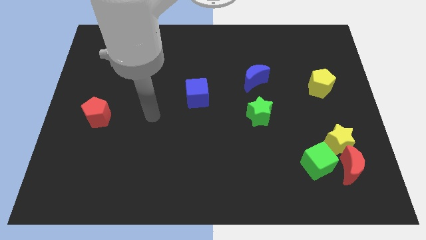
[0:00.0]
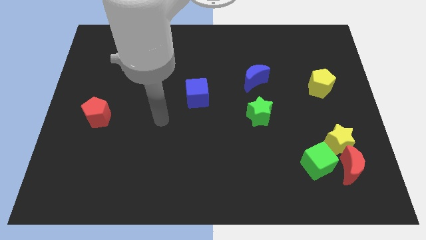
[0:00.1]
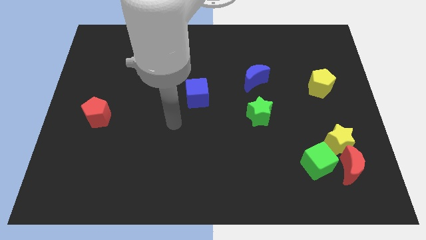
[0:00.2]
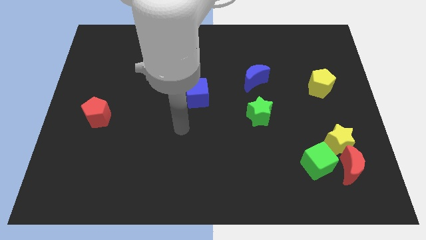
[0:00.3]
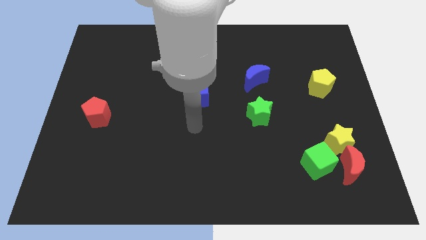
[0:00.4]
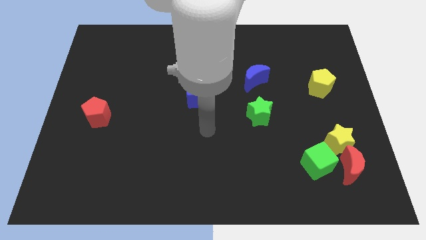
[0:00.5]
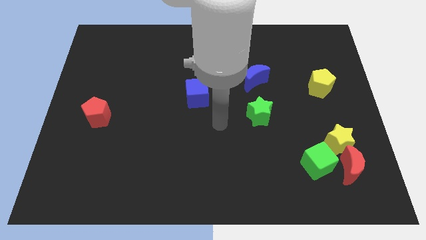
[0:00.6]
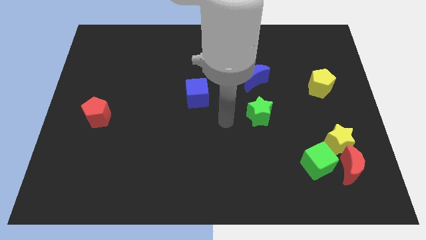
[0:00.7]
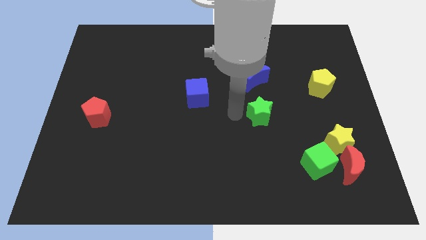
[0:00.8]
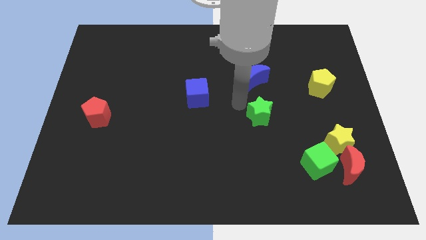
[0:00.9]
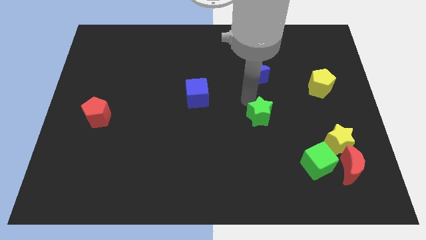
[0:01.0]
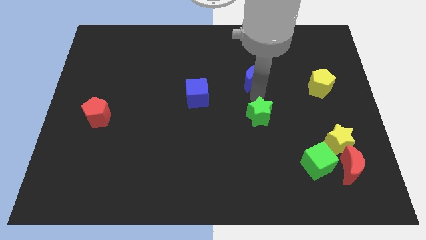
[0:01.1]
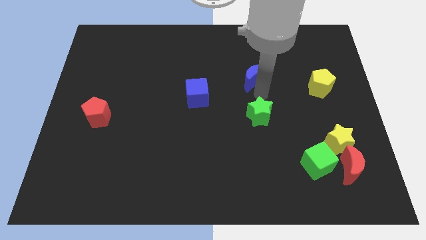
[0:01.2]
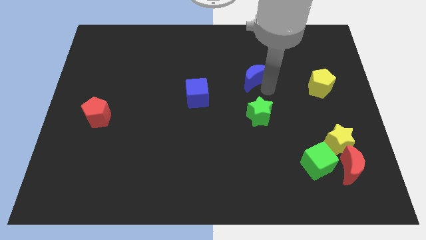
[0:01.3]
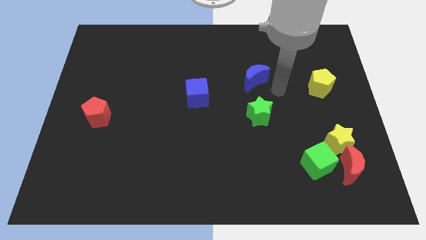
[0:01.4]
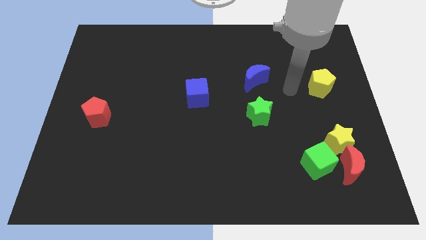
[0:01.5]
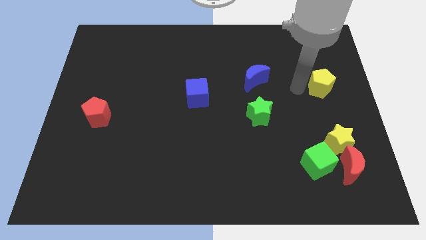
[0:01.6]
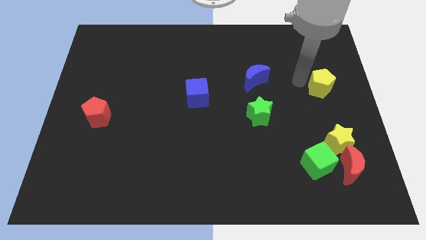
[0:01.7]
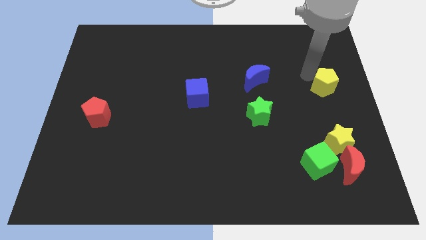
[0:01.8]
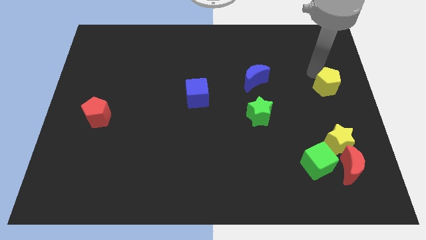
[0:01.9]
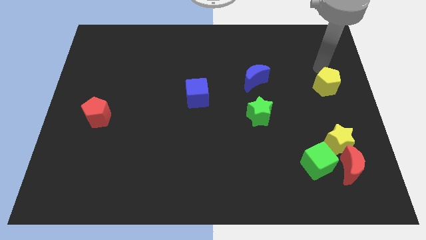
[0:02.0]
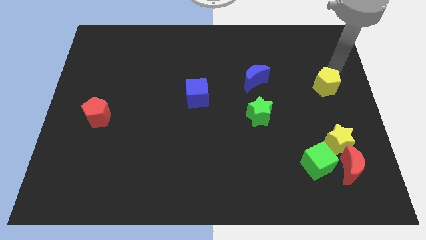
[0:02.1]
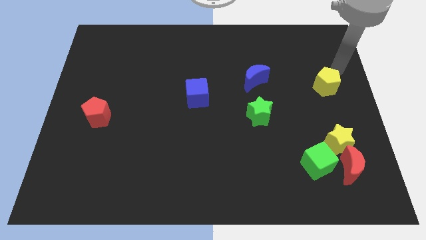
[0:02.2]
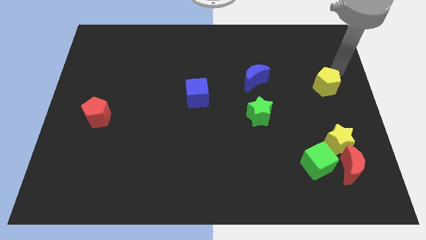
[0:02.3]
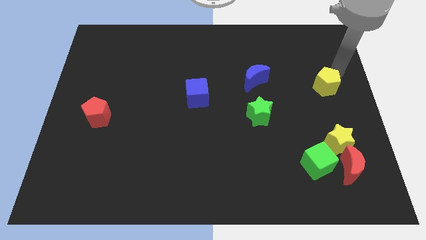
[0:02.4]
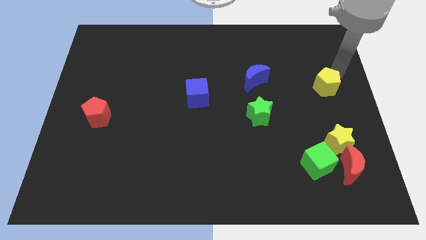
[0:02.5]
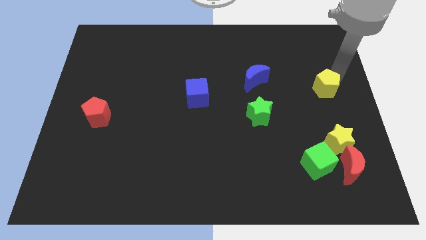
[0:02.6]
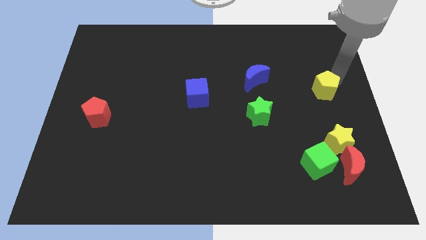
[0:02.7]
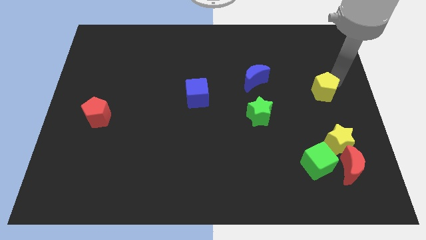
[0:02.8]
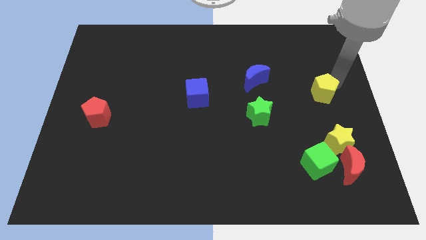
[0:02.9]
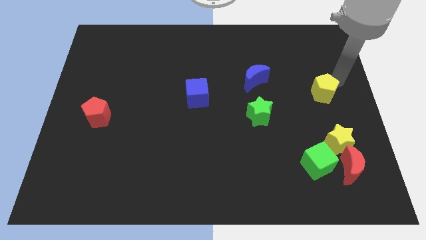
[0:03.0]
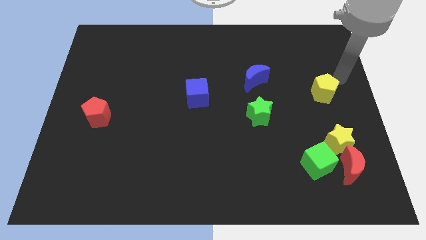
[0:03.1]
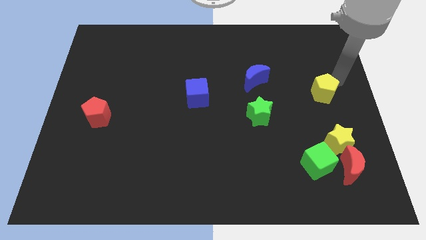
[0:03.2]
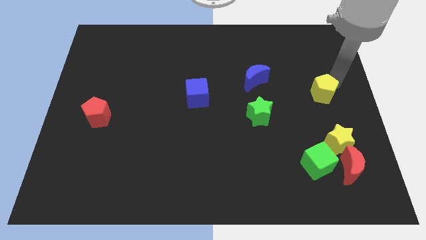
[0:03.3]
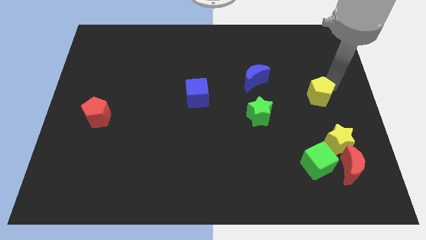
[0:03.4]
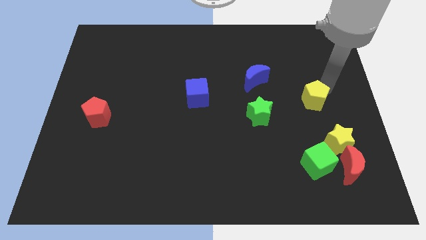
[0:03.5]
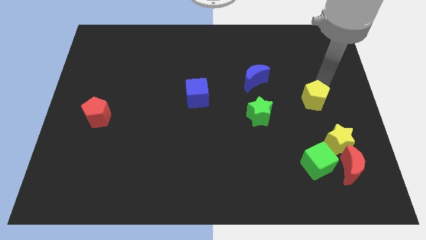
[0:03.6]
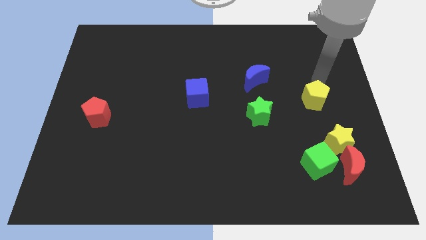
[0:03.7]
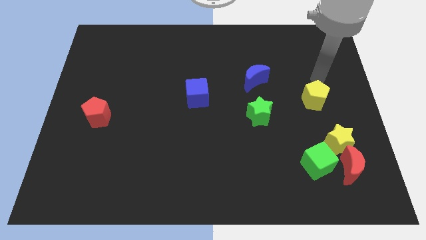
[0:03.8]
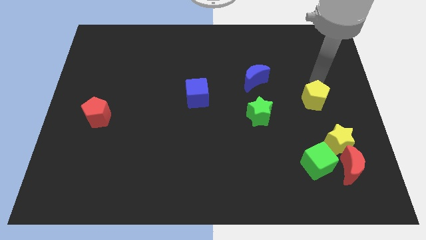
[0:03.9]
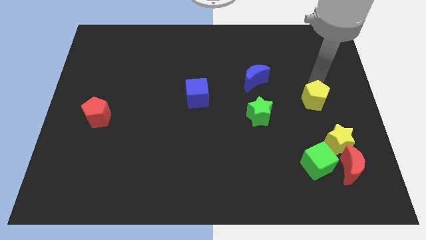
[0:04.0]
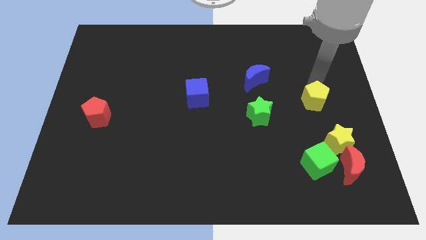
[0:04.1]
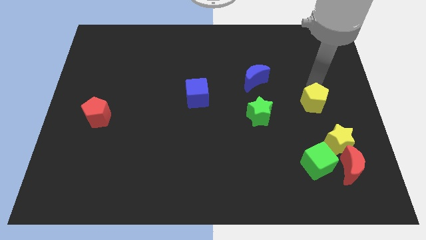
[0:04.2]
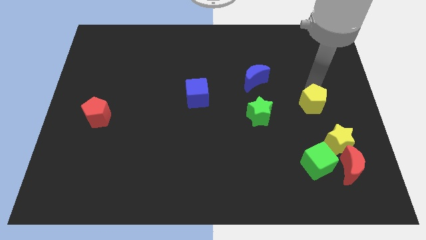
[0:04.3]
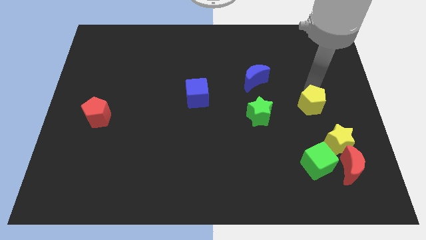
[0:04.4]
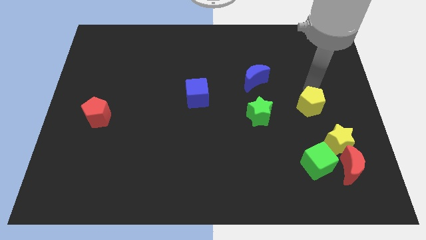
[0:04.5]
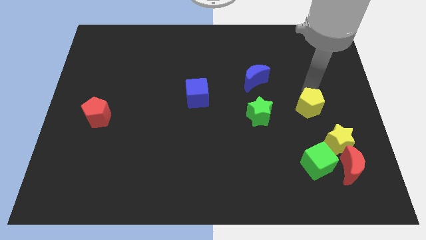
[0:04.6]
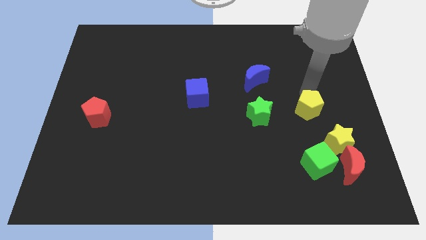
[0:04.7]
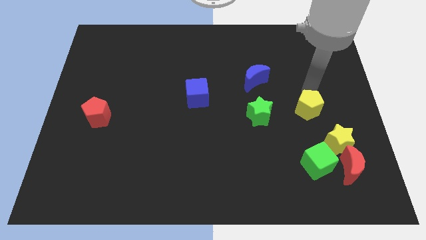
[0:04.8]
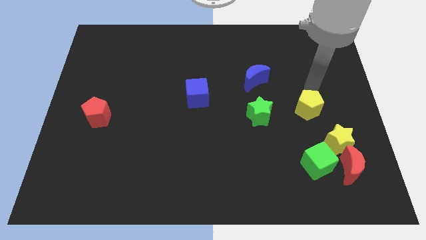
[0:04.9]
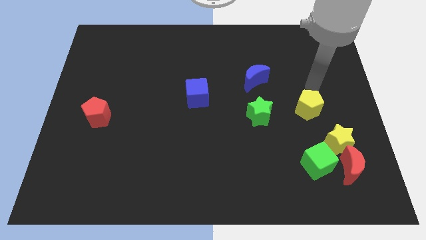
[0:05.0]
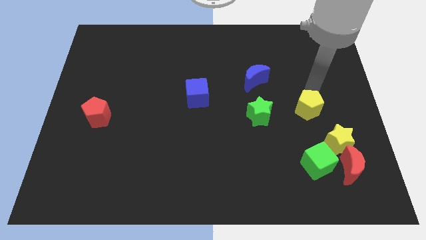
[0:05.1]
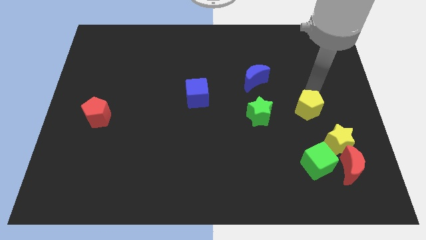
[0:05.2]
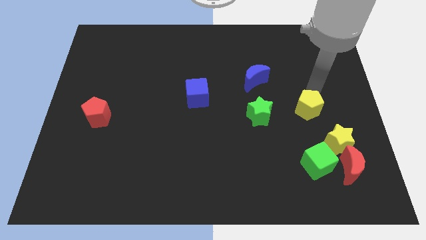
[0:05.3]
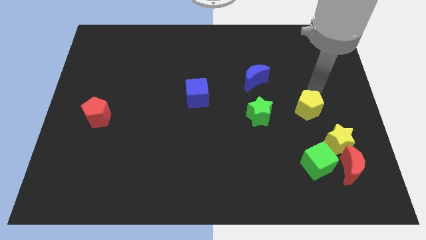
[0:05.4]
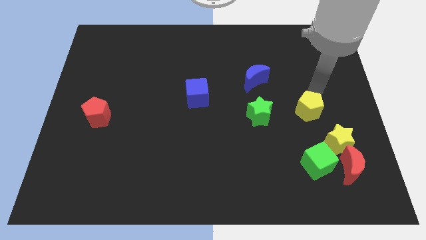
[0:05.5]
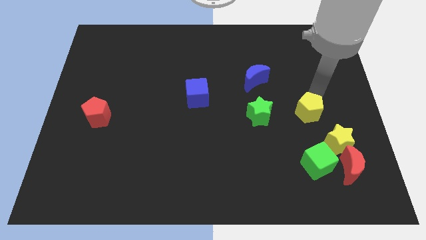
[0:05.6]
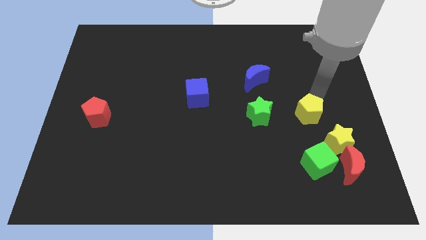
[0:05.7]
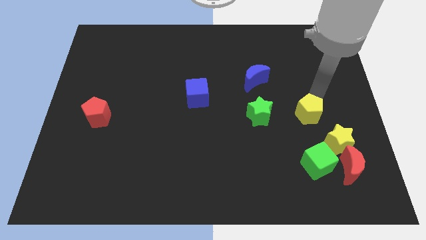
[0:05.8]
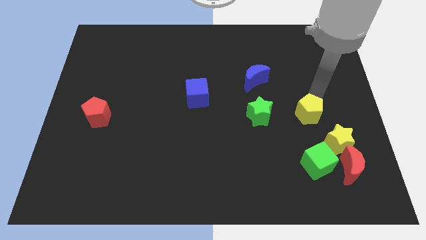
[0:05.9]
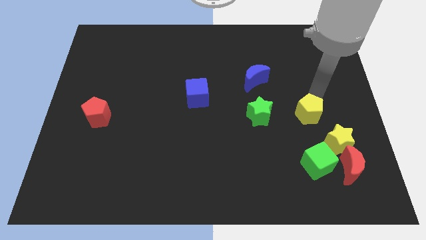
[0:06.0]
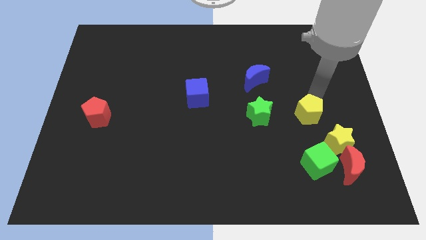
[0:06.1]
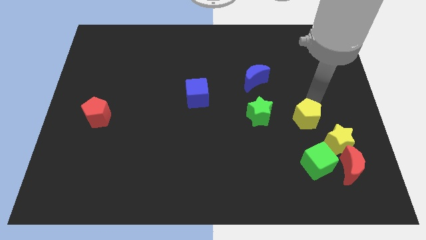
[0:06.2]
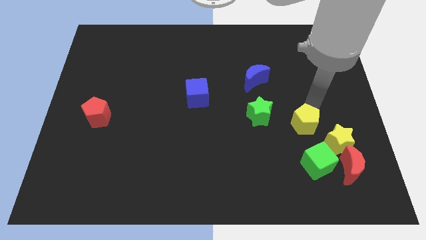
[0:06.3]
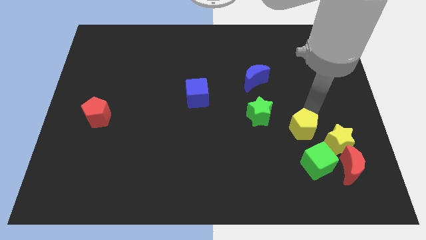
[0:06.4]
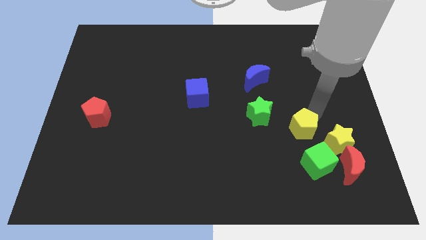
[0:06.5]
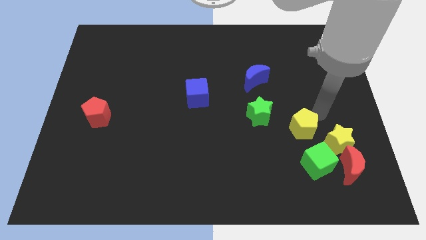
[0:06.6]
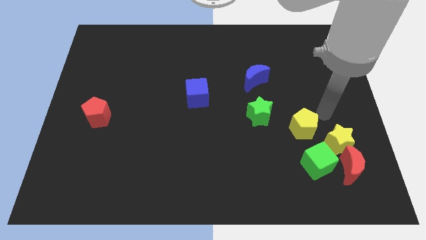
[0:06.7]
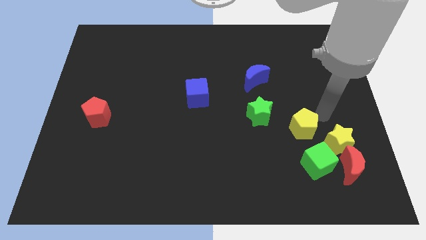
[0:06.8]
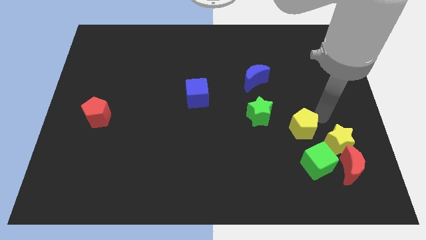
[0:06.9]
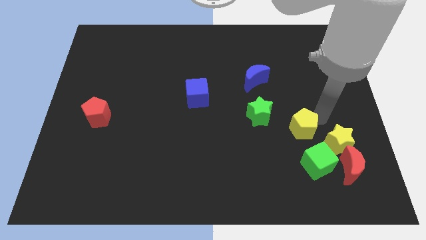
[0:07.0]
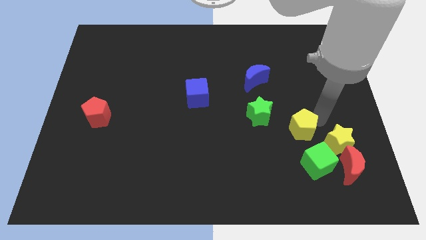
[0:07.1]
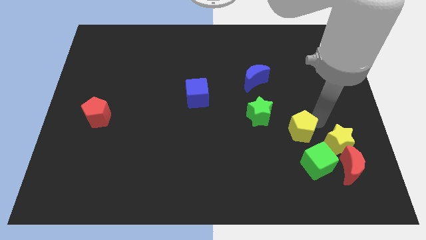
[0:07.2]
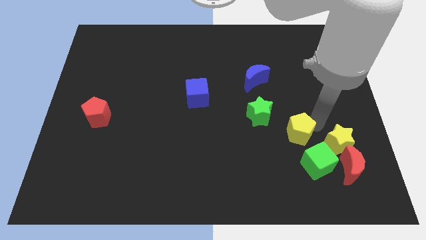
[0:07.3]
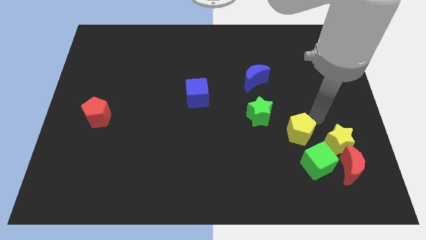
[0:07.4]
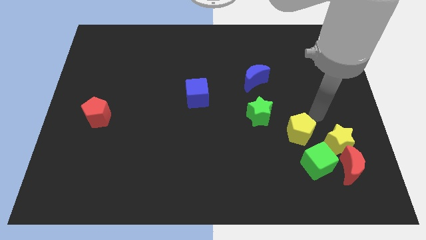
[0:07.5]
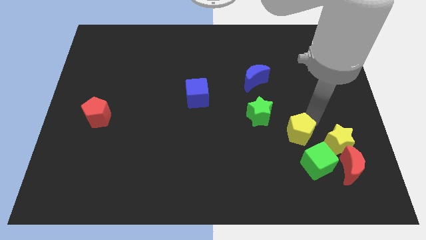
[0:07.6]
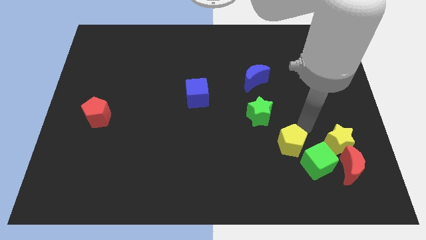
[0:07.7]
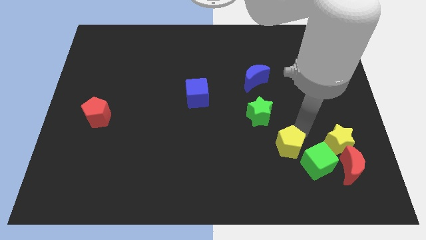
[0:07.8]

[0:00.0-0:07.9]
move the yellow pentagon to the left side of the green cube
